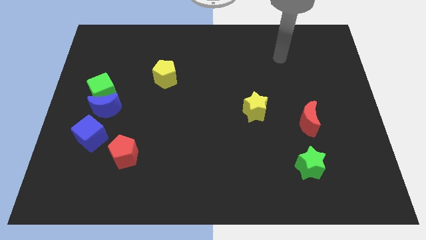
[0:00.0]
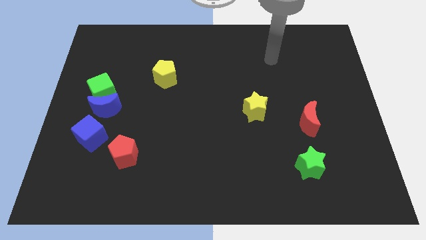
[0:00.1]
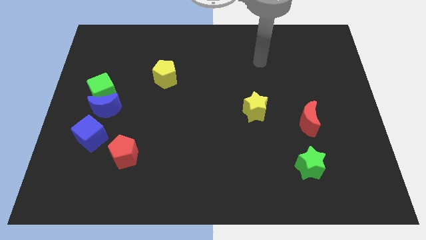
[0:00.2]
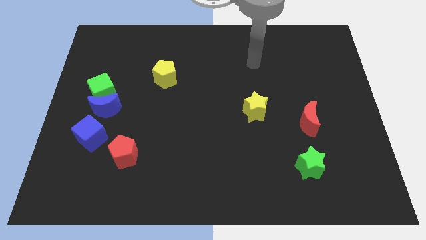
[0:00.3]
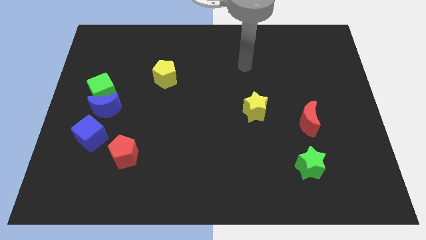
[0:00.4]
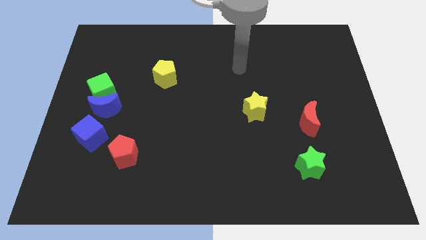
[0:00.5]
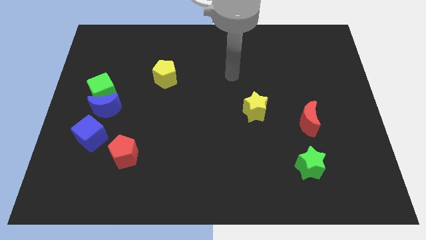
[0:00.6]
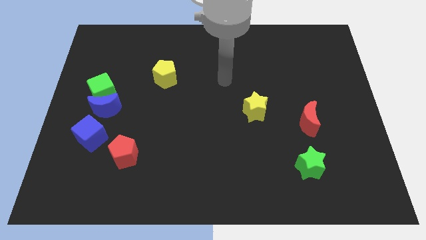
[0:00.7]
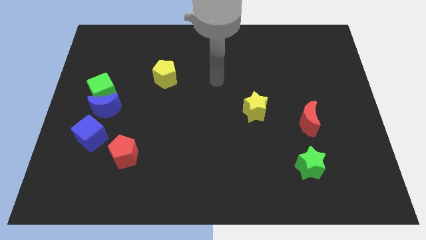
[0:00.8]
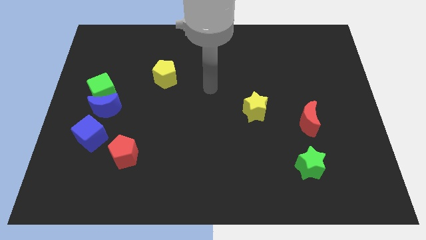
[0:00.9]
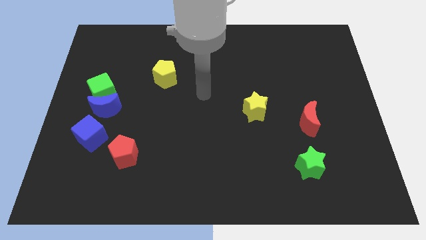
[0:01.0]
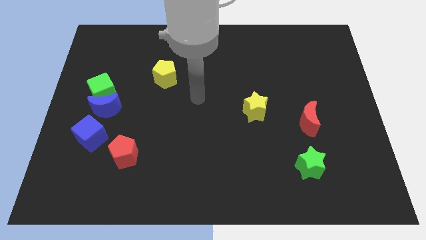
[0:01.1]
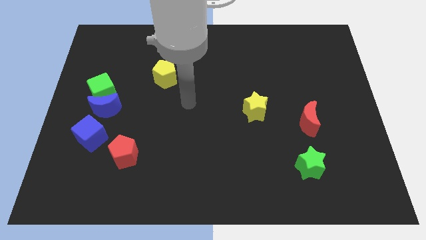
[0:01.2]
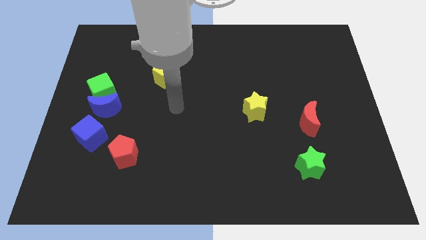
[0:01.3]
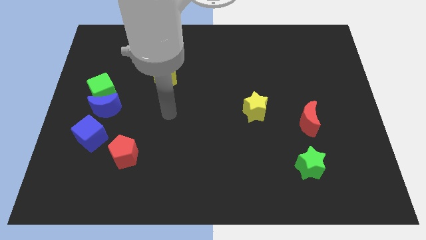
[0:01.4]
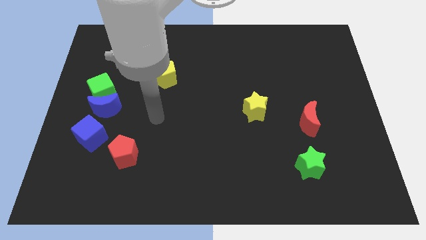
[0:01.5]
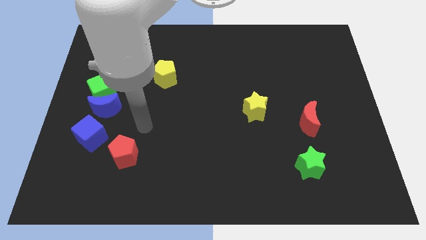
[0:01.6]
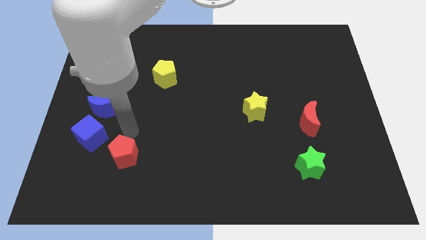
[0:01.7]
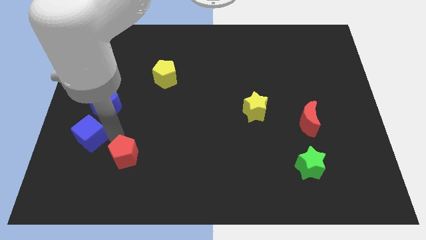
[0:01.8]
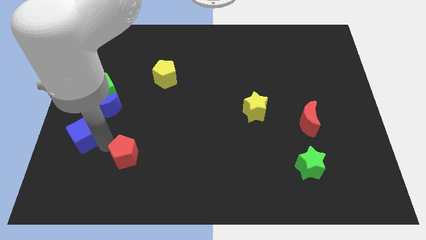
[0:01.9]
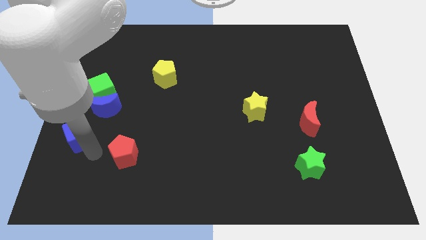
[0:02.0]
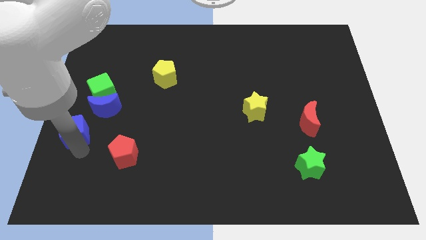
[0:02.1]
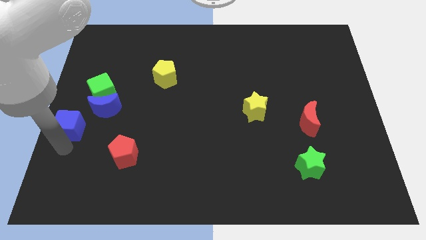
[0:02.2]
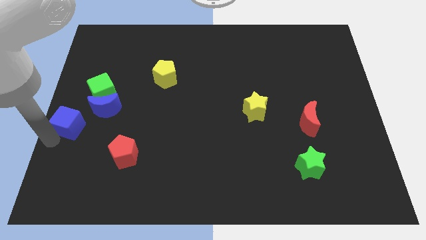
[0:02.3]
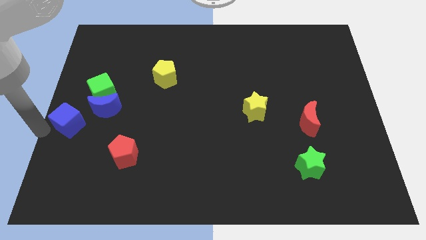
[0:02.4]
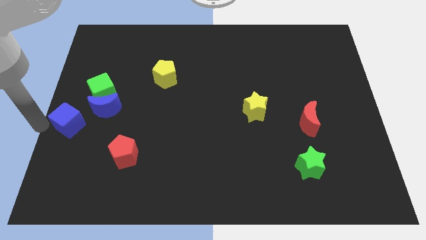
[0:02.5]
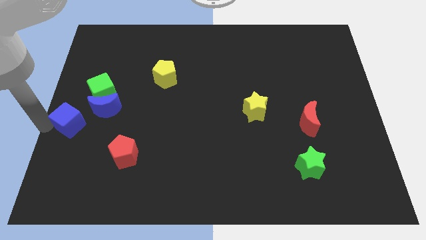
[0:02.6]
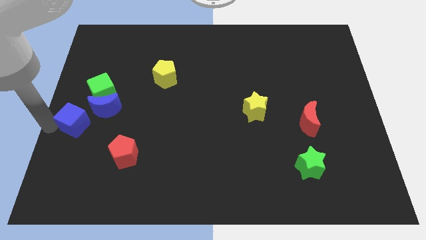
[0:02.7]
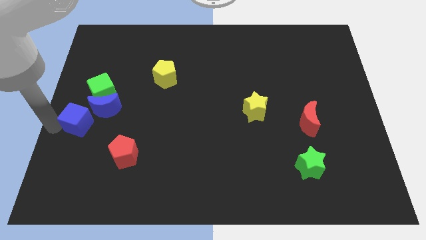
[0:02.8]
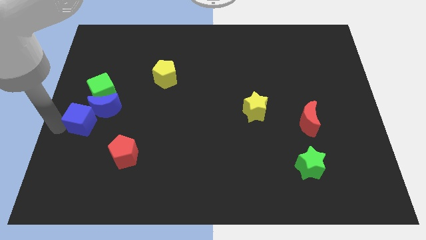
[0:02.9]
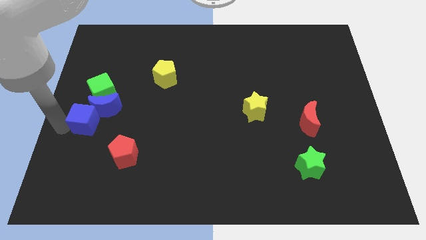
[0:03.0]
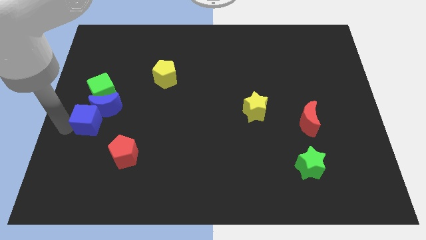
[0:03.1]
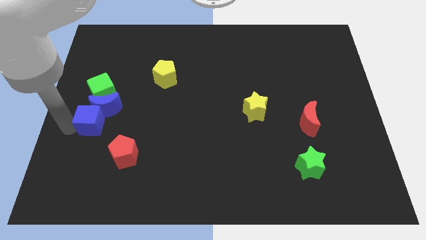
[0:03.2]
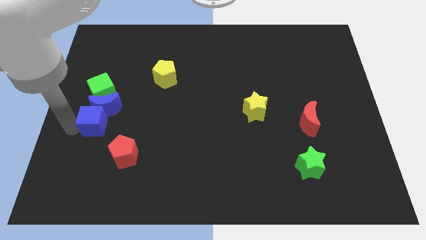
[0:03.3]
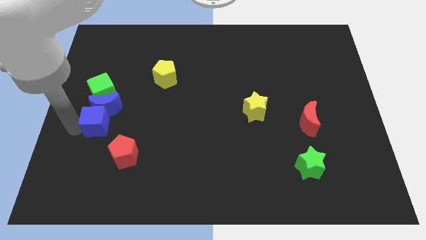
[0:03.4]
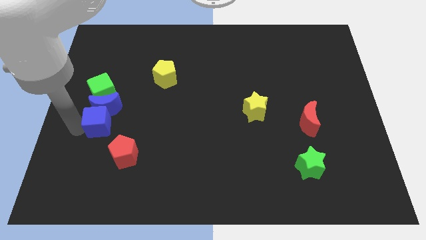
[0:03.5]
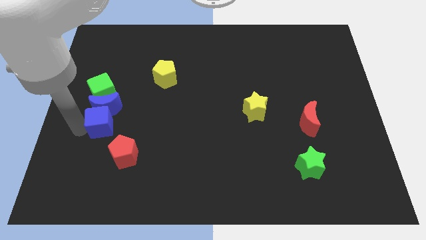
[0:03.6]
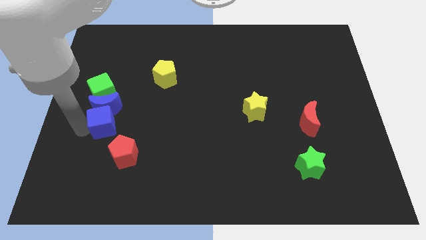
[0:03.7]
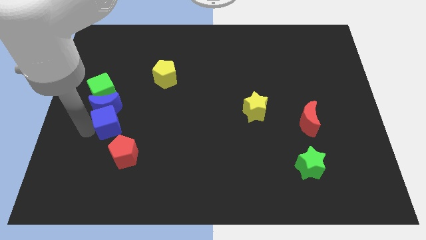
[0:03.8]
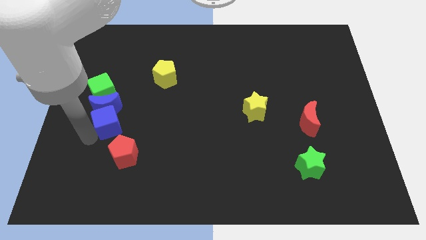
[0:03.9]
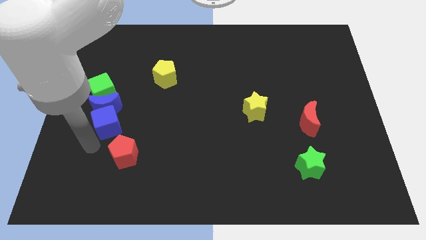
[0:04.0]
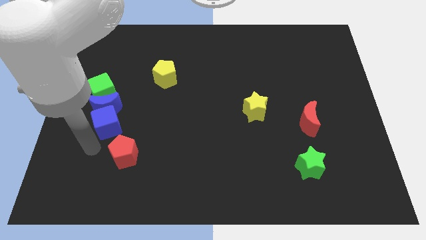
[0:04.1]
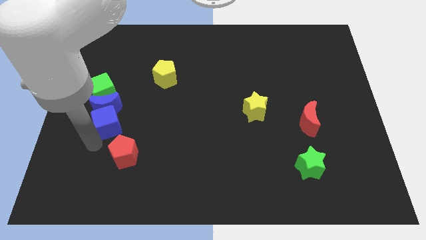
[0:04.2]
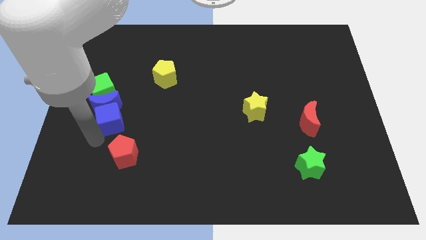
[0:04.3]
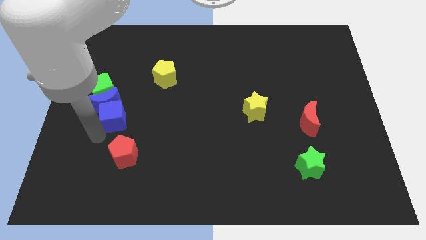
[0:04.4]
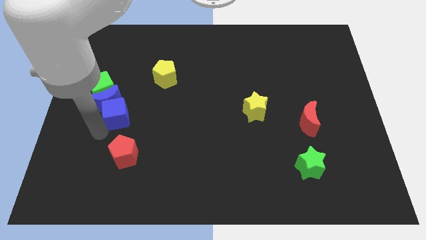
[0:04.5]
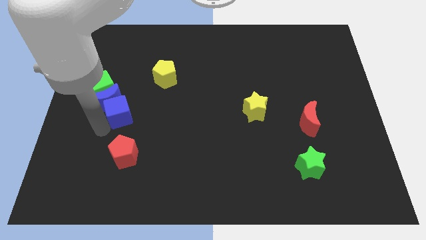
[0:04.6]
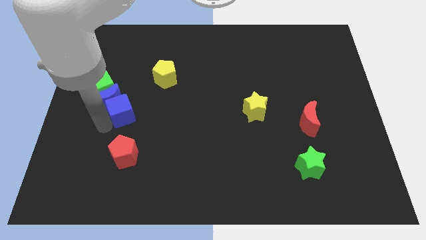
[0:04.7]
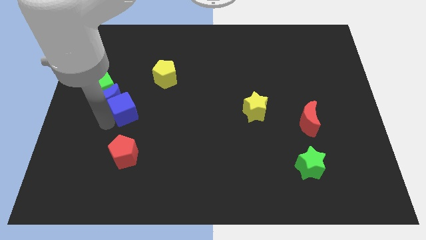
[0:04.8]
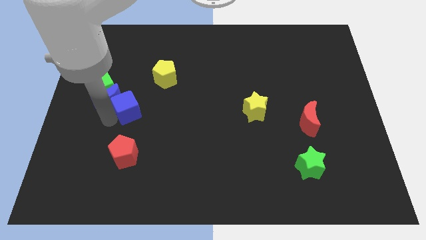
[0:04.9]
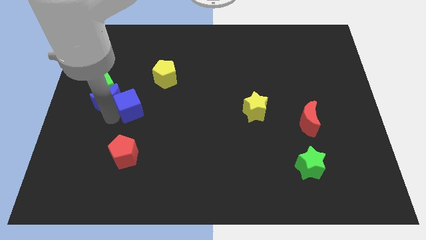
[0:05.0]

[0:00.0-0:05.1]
push the blue cube to the top right of the blue moon

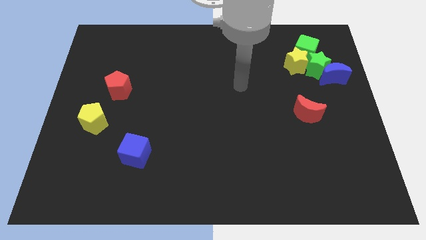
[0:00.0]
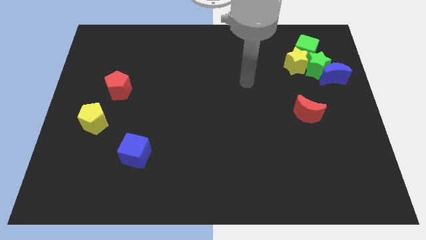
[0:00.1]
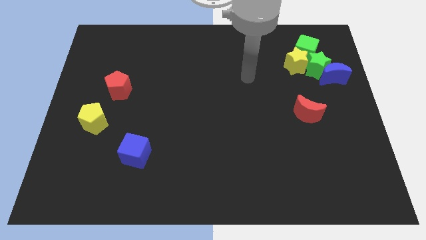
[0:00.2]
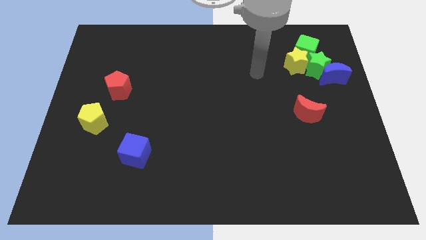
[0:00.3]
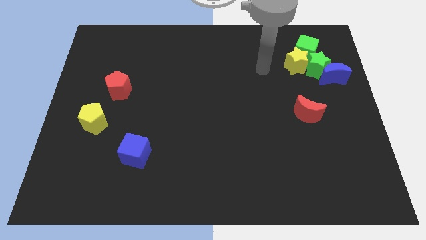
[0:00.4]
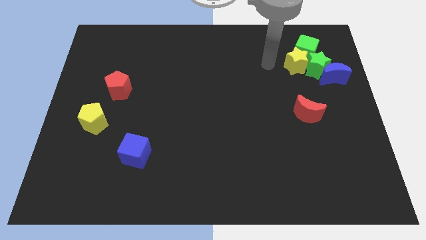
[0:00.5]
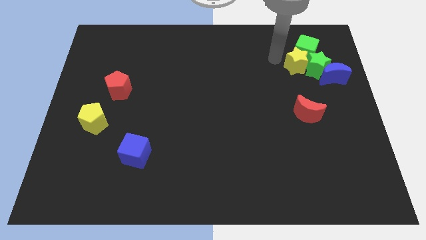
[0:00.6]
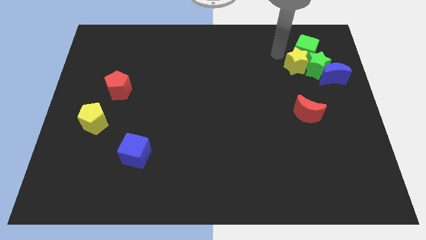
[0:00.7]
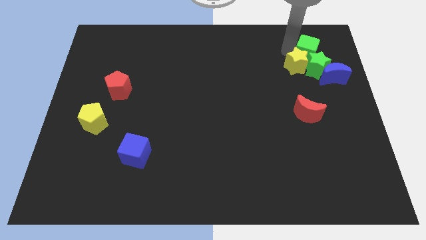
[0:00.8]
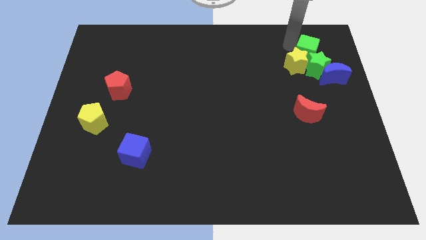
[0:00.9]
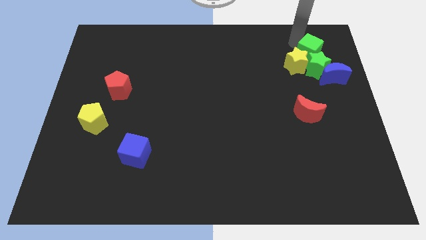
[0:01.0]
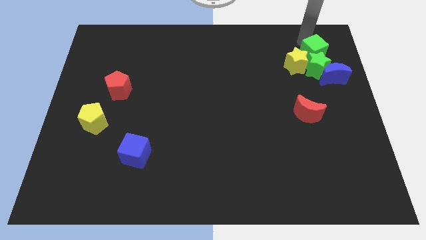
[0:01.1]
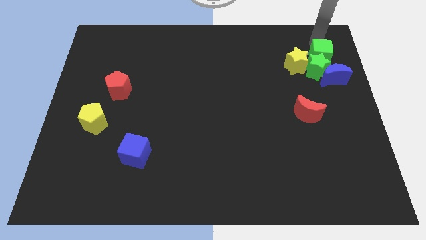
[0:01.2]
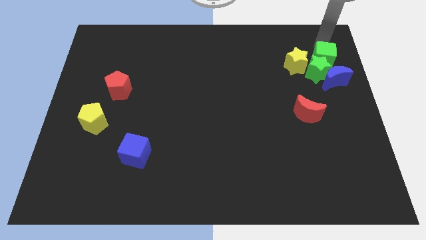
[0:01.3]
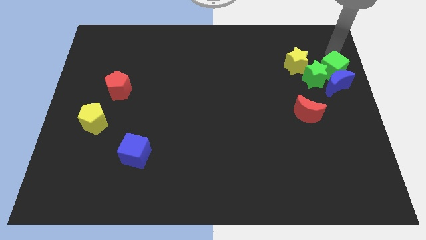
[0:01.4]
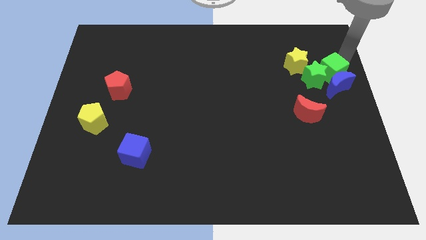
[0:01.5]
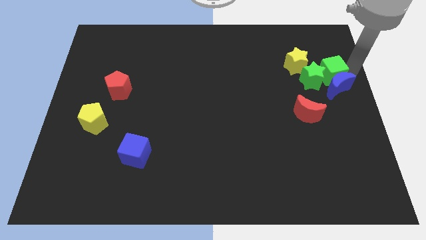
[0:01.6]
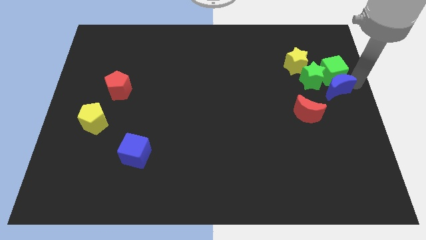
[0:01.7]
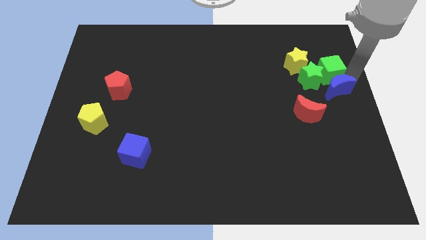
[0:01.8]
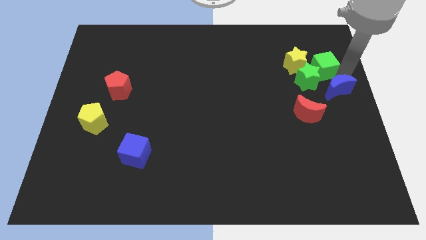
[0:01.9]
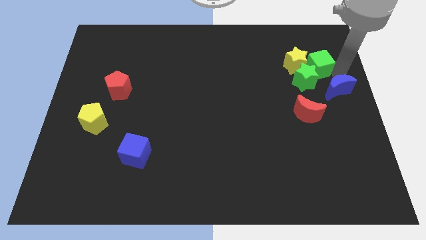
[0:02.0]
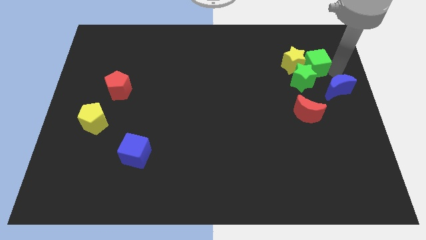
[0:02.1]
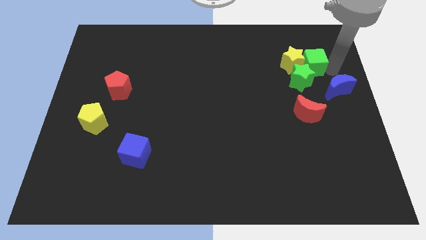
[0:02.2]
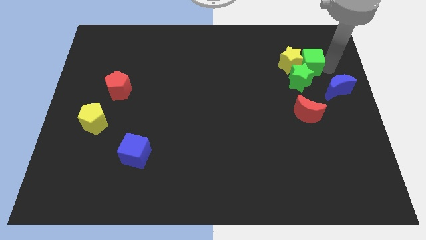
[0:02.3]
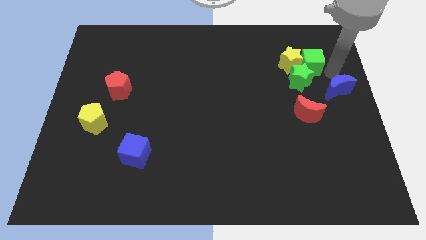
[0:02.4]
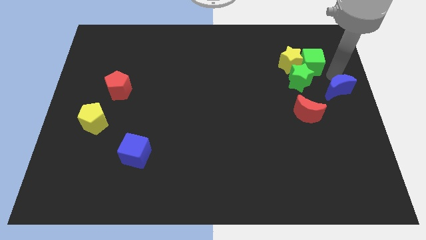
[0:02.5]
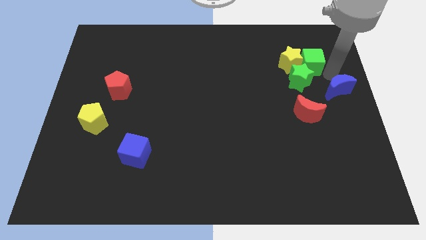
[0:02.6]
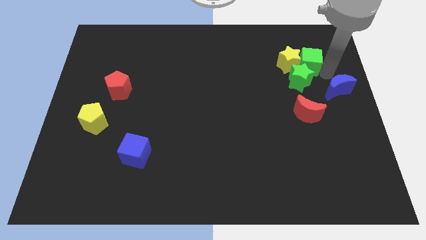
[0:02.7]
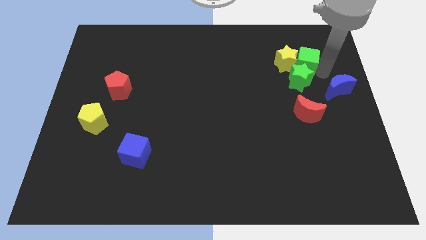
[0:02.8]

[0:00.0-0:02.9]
put the green cube to the top of the red moon
